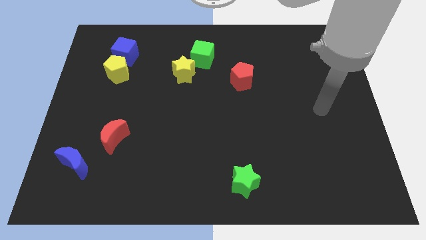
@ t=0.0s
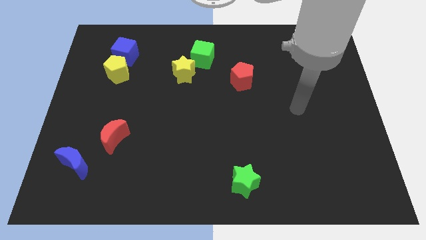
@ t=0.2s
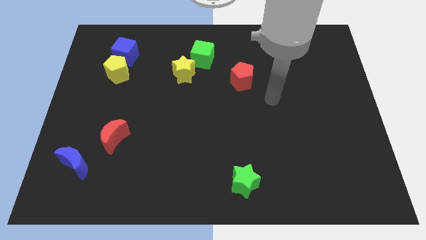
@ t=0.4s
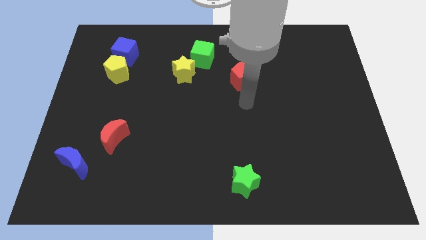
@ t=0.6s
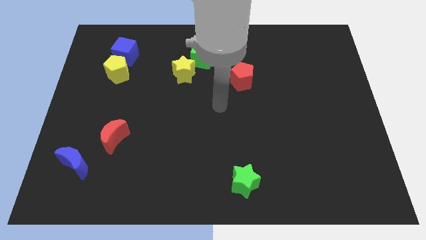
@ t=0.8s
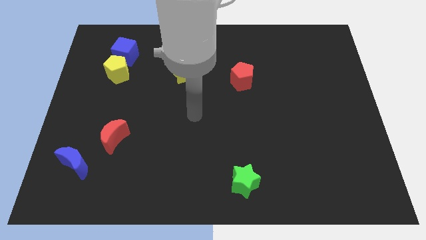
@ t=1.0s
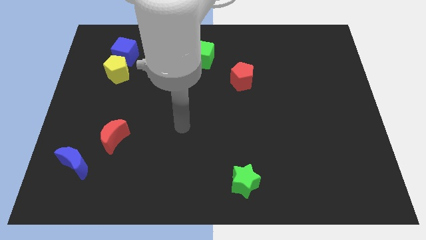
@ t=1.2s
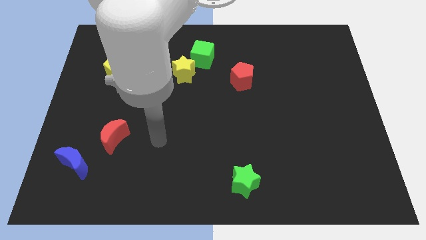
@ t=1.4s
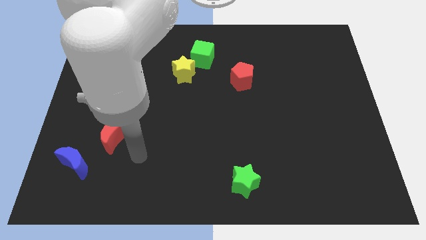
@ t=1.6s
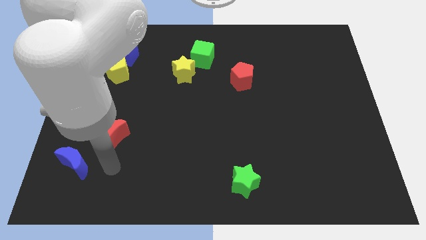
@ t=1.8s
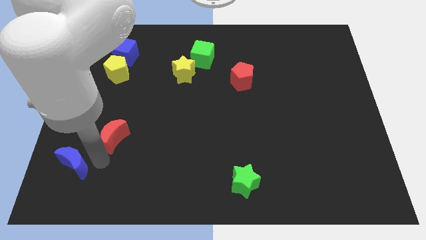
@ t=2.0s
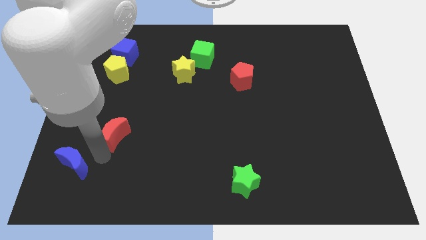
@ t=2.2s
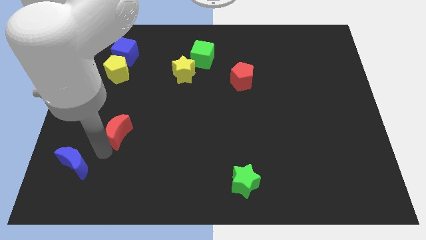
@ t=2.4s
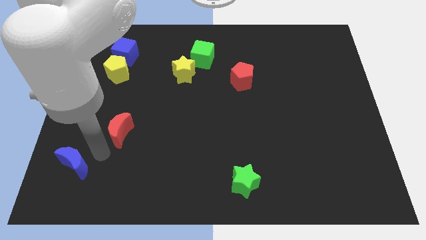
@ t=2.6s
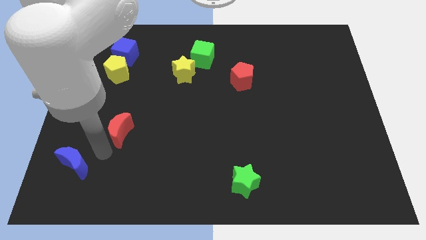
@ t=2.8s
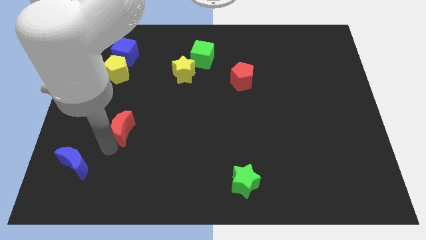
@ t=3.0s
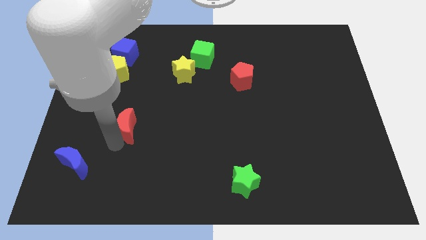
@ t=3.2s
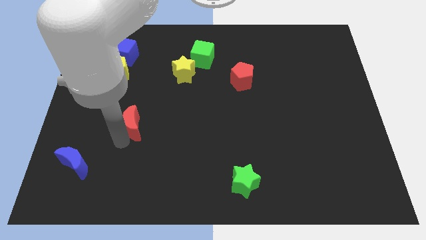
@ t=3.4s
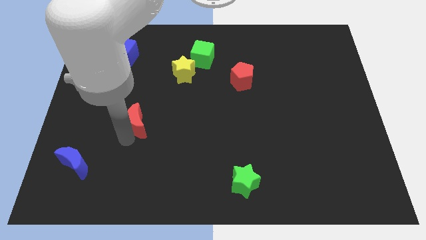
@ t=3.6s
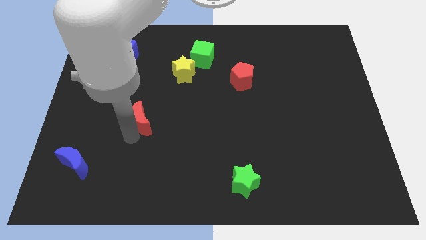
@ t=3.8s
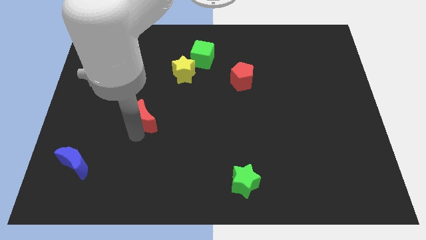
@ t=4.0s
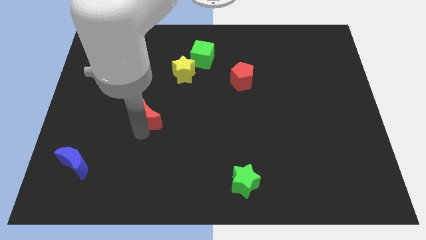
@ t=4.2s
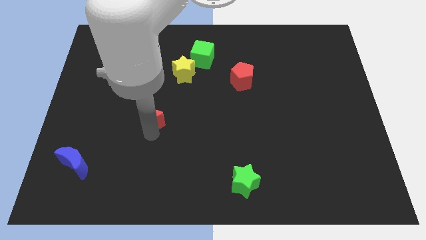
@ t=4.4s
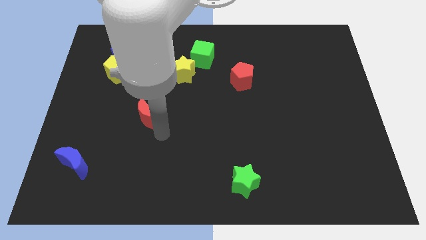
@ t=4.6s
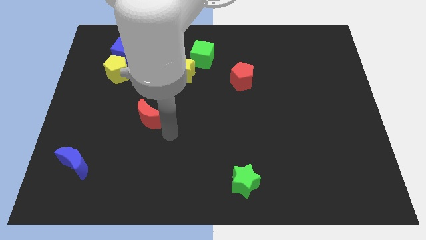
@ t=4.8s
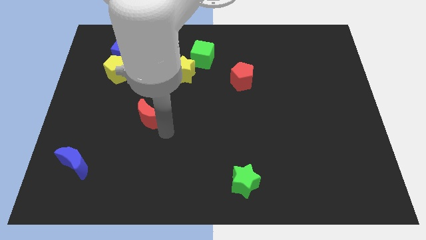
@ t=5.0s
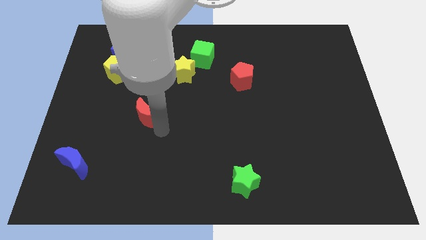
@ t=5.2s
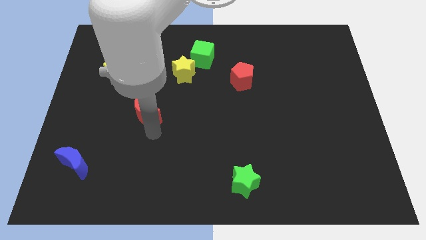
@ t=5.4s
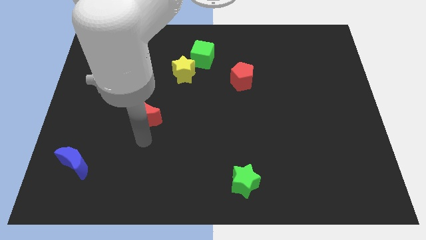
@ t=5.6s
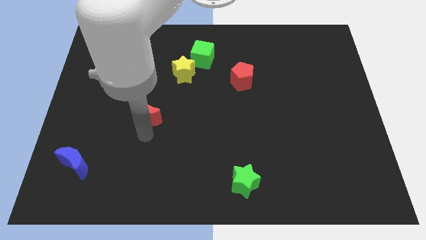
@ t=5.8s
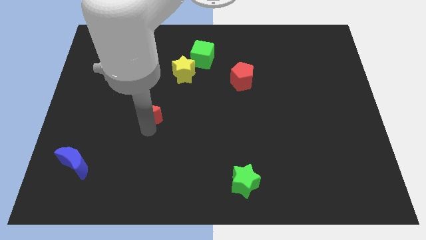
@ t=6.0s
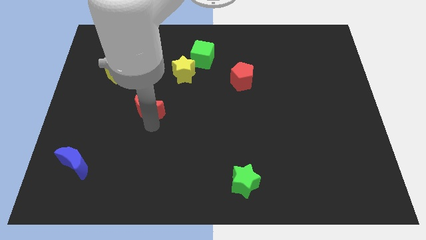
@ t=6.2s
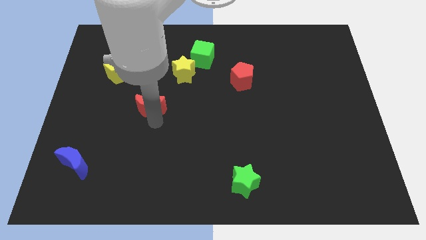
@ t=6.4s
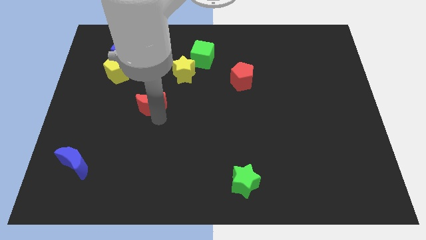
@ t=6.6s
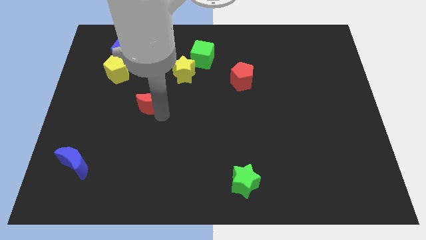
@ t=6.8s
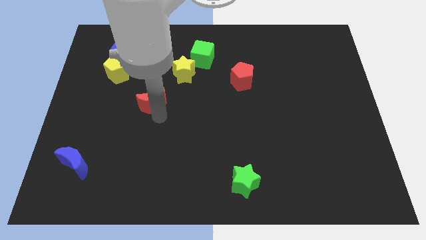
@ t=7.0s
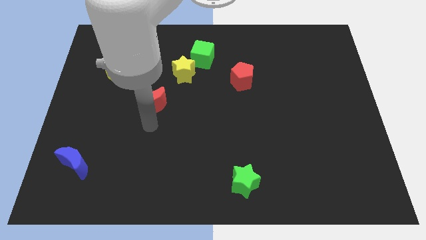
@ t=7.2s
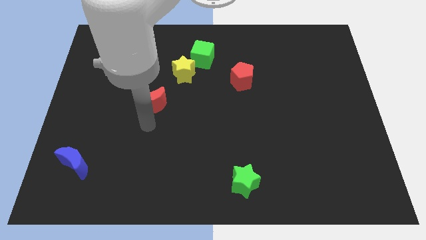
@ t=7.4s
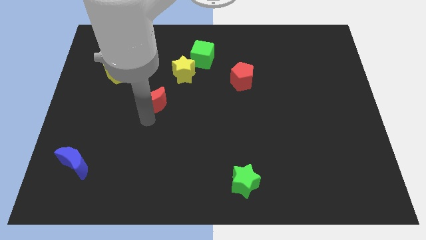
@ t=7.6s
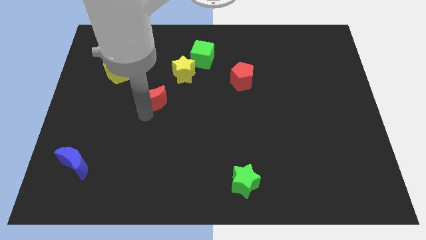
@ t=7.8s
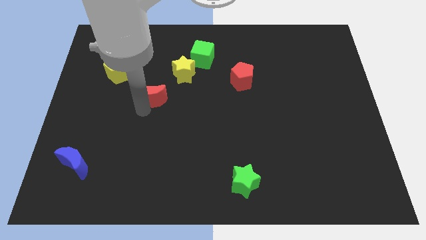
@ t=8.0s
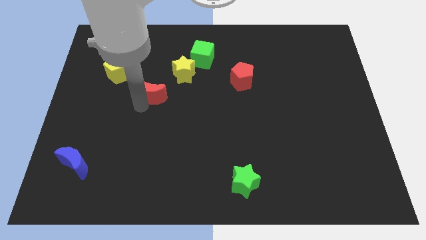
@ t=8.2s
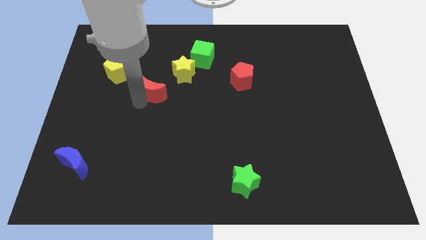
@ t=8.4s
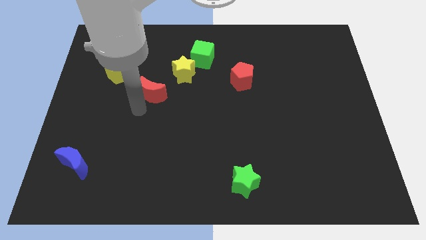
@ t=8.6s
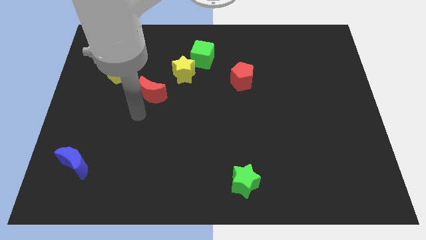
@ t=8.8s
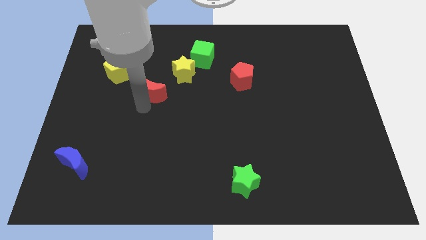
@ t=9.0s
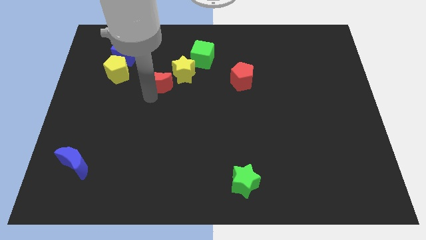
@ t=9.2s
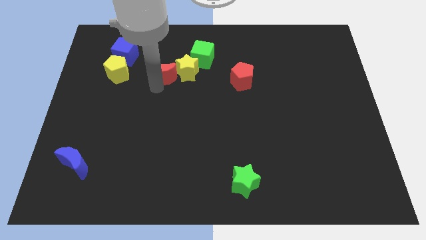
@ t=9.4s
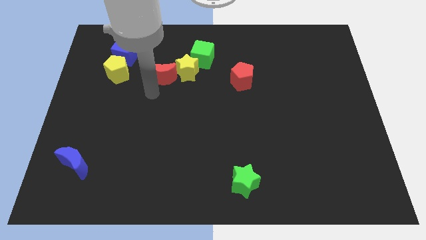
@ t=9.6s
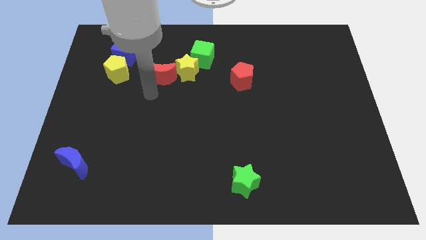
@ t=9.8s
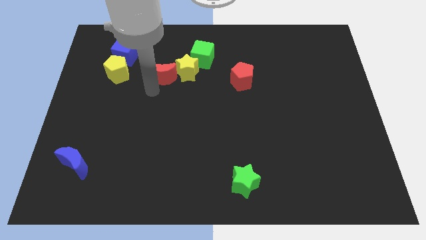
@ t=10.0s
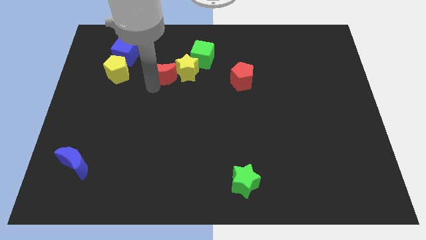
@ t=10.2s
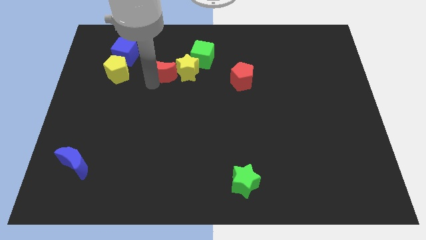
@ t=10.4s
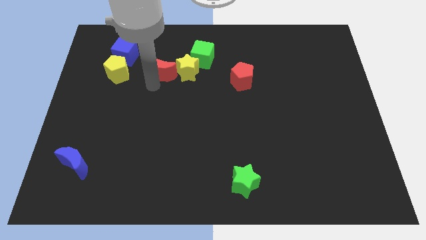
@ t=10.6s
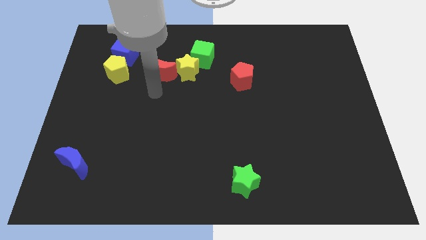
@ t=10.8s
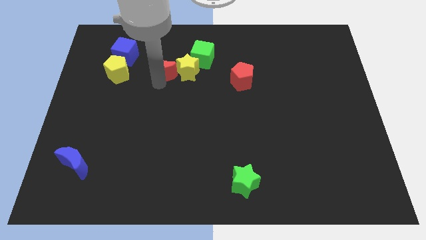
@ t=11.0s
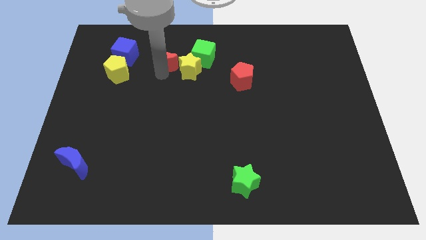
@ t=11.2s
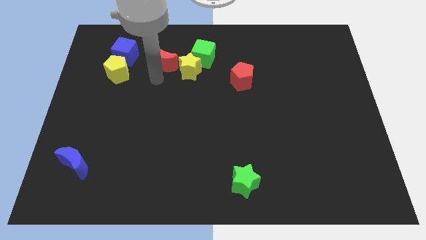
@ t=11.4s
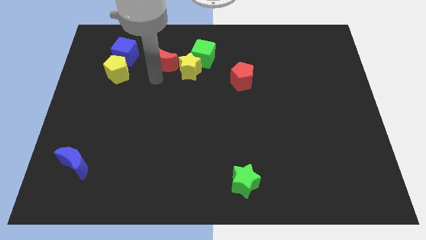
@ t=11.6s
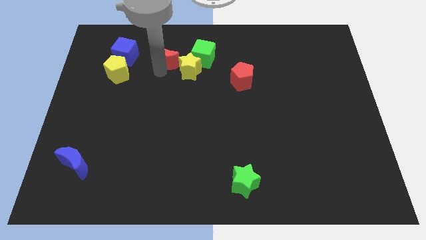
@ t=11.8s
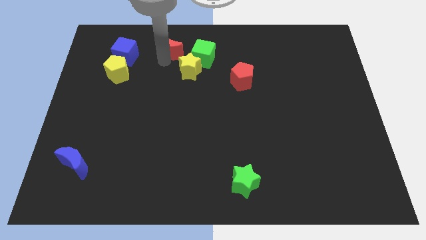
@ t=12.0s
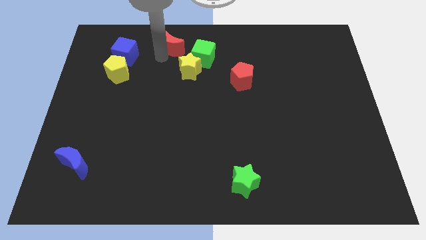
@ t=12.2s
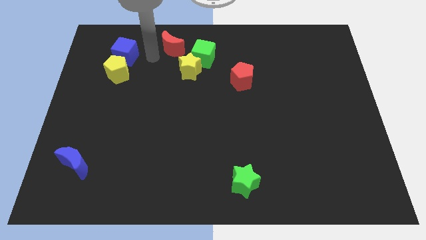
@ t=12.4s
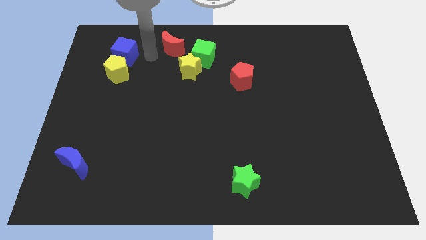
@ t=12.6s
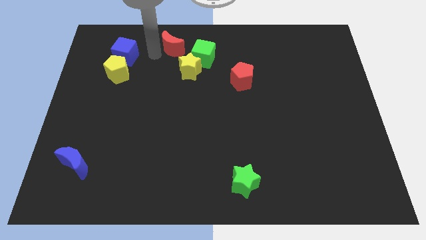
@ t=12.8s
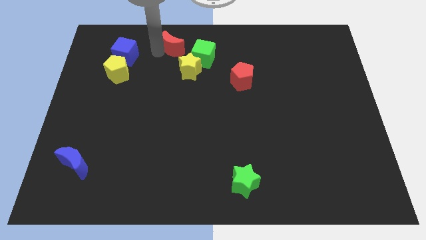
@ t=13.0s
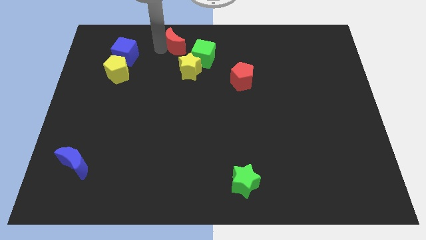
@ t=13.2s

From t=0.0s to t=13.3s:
push the red moon to the top side

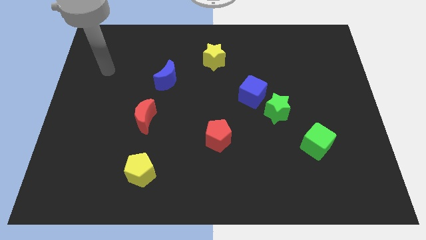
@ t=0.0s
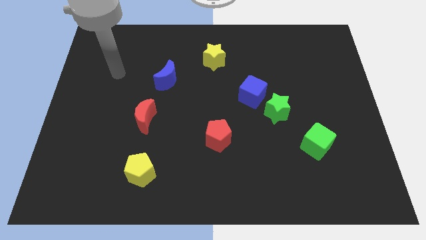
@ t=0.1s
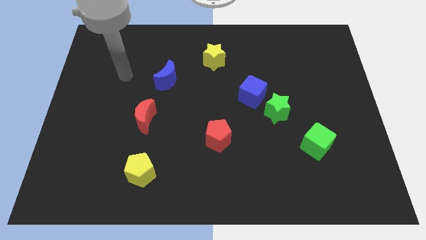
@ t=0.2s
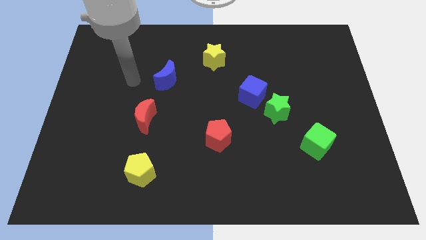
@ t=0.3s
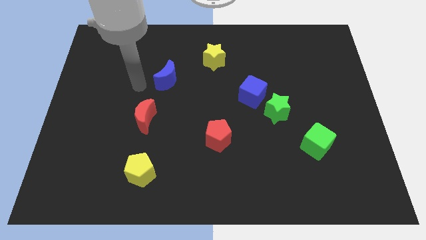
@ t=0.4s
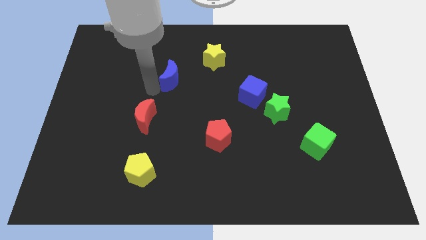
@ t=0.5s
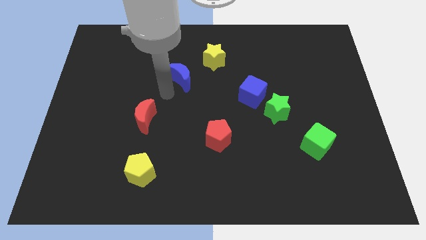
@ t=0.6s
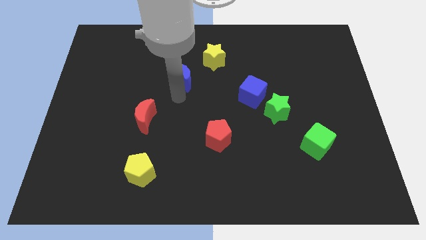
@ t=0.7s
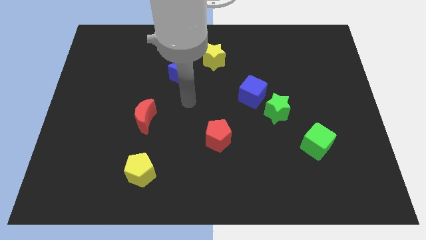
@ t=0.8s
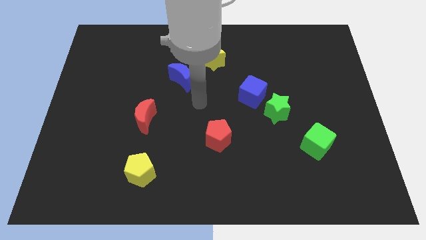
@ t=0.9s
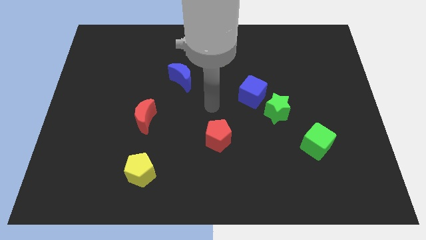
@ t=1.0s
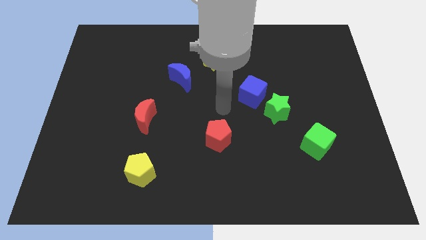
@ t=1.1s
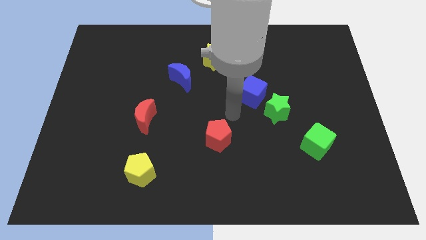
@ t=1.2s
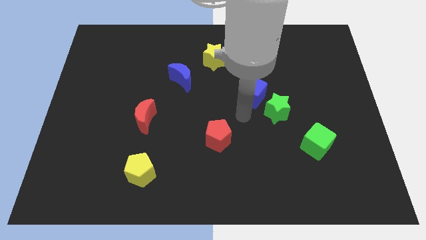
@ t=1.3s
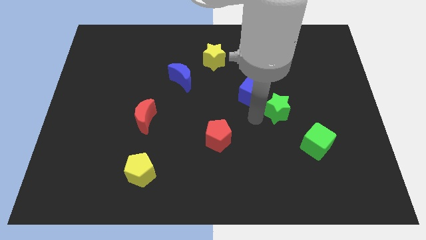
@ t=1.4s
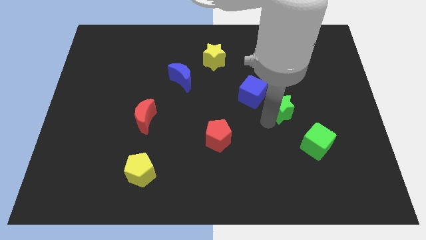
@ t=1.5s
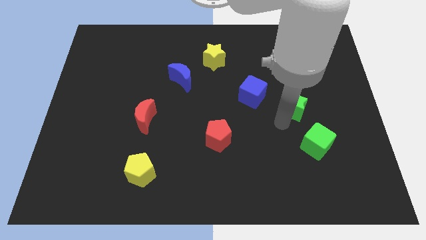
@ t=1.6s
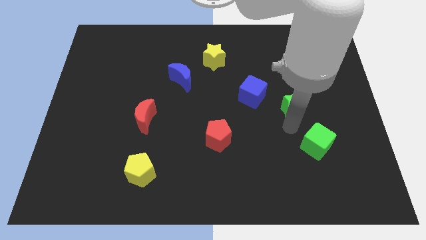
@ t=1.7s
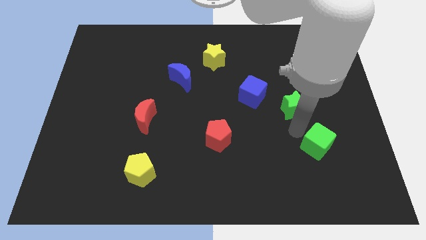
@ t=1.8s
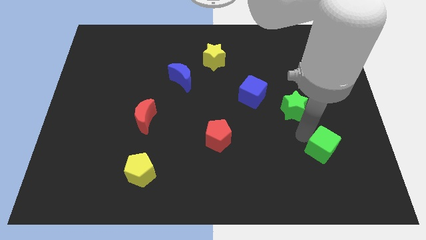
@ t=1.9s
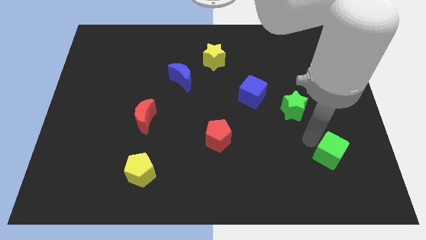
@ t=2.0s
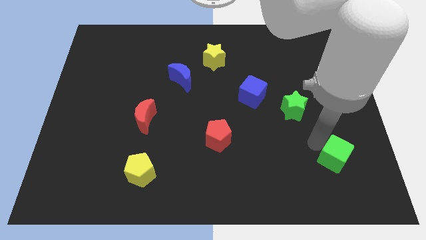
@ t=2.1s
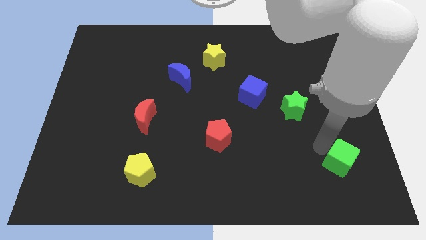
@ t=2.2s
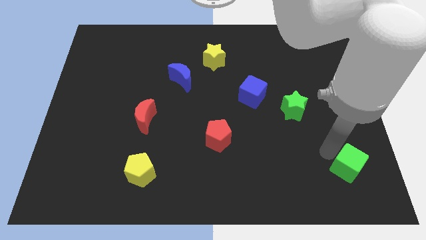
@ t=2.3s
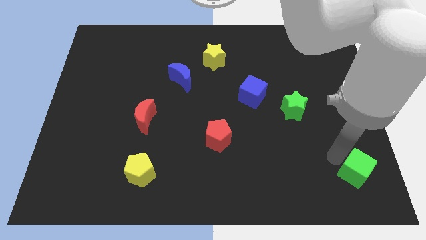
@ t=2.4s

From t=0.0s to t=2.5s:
move the green cube to the lower right corner
